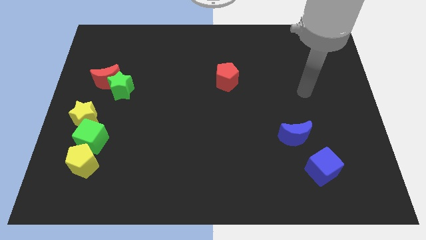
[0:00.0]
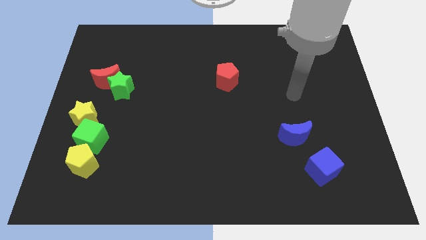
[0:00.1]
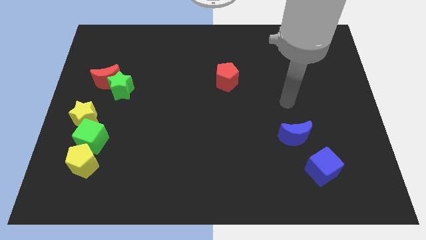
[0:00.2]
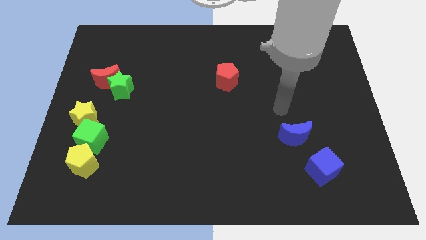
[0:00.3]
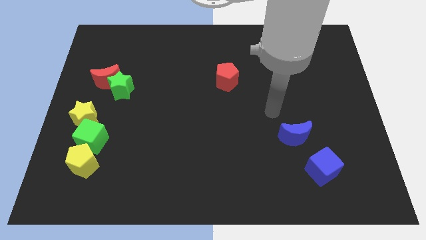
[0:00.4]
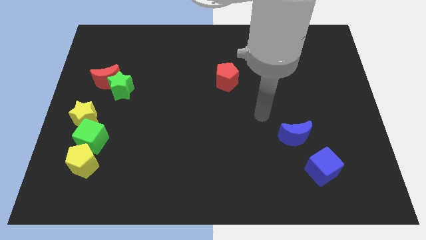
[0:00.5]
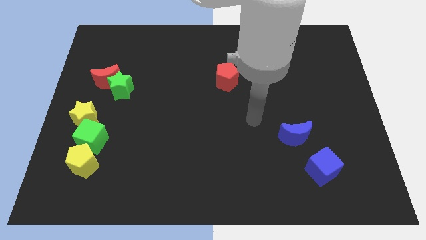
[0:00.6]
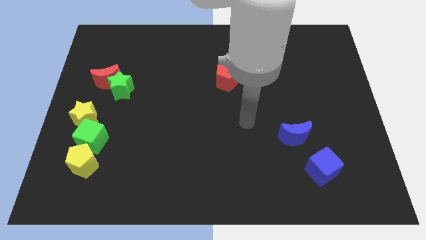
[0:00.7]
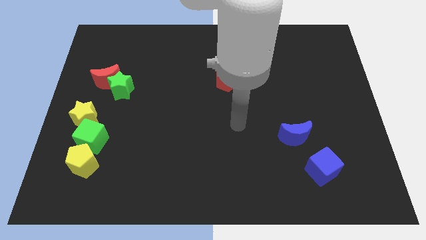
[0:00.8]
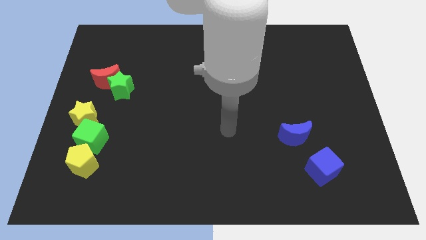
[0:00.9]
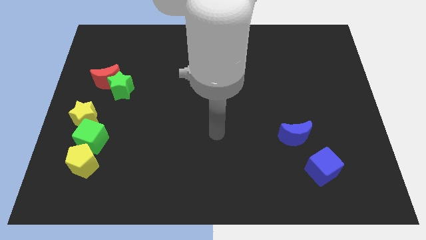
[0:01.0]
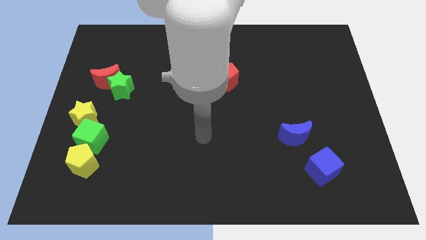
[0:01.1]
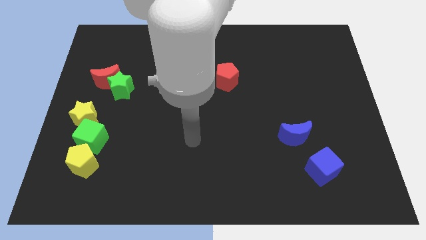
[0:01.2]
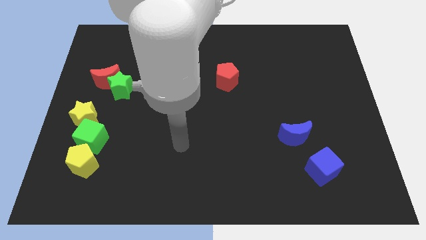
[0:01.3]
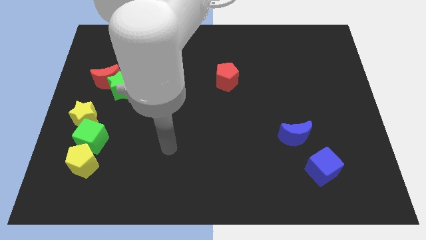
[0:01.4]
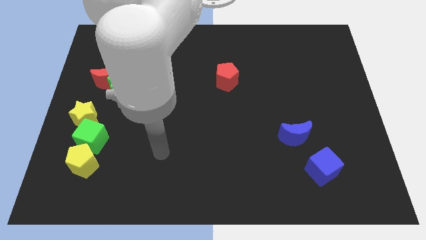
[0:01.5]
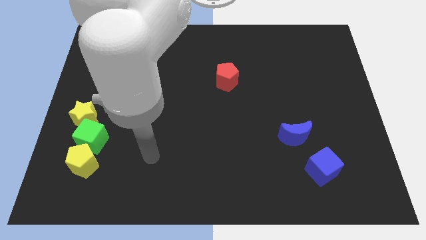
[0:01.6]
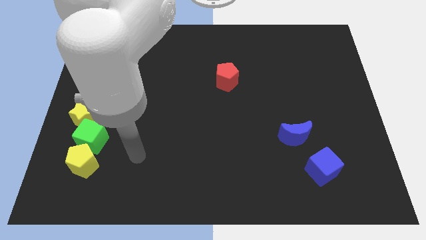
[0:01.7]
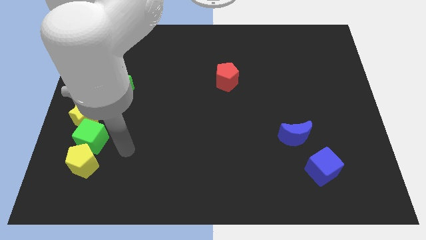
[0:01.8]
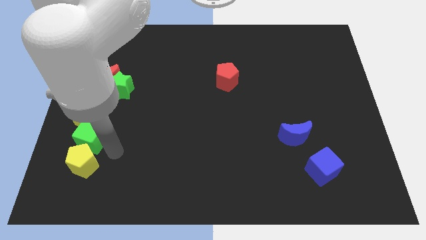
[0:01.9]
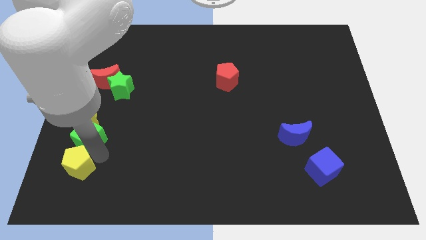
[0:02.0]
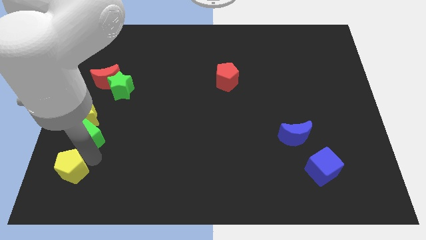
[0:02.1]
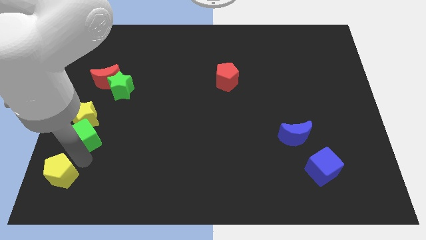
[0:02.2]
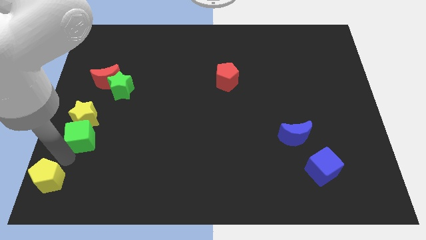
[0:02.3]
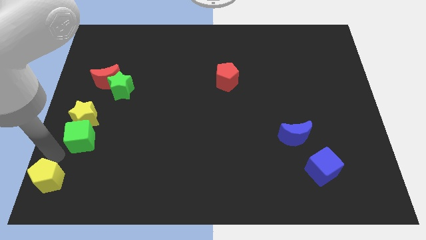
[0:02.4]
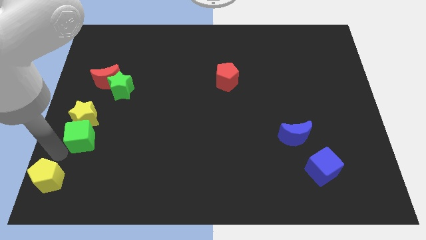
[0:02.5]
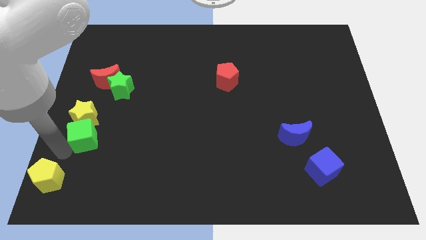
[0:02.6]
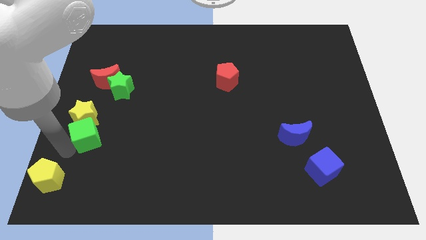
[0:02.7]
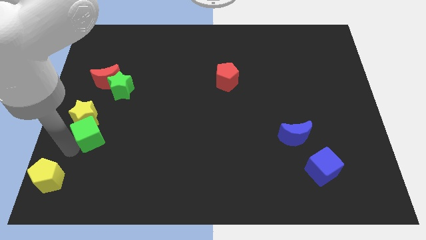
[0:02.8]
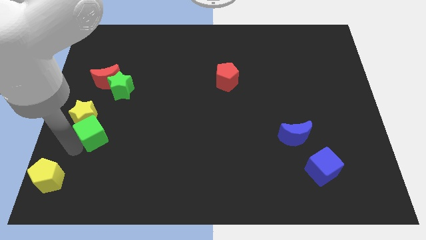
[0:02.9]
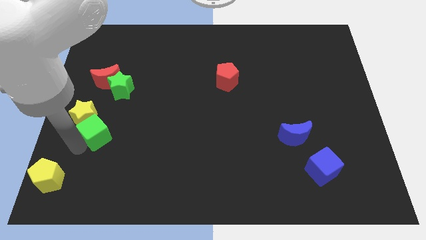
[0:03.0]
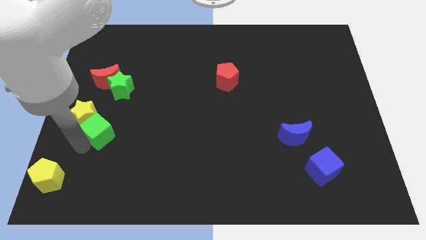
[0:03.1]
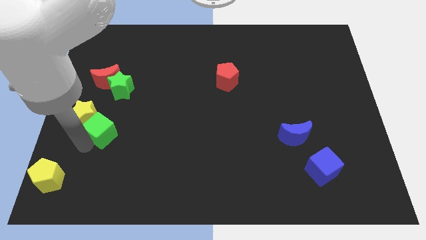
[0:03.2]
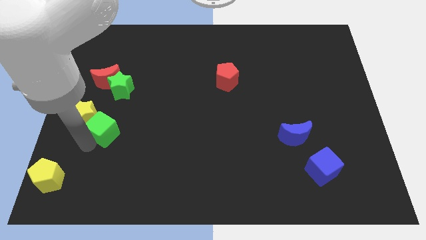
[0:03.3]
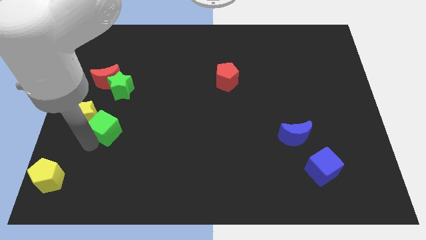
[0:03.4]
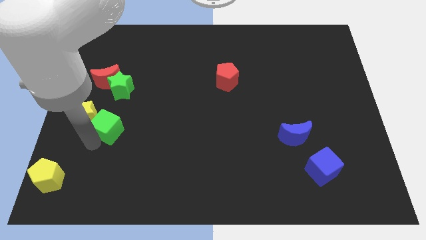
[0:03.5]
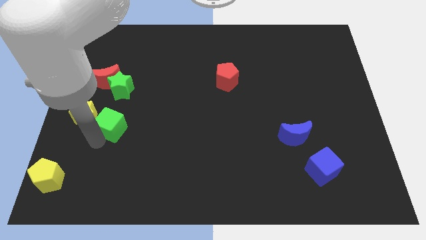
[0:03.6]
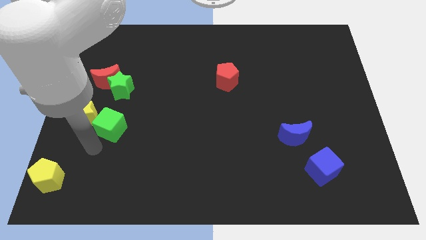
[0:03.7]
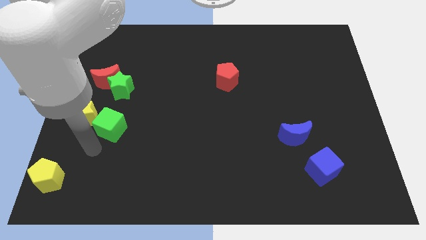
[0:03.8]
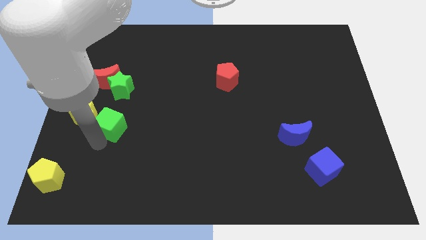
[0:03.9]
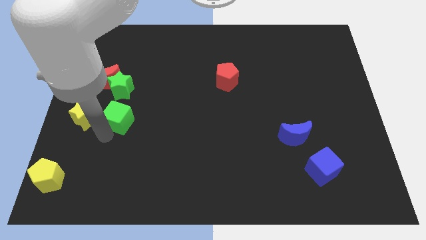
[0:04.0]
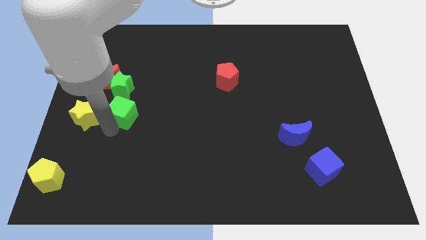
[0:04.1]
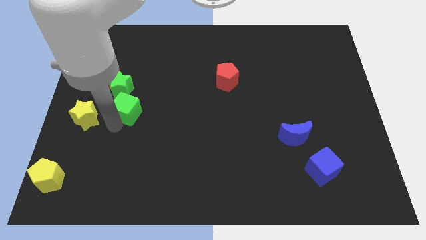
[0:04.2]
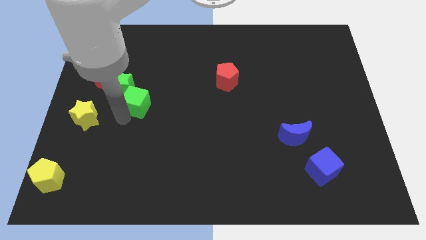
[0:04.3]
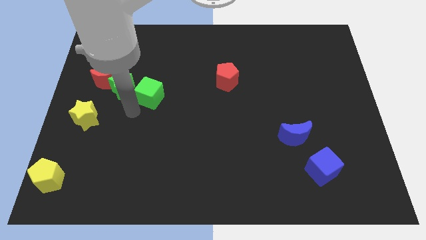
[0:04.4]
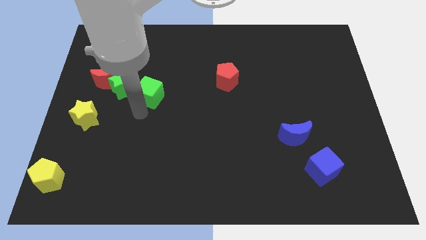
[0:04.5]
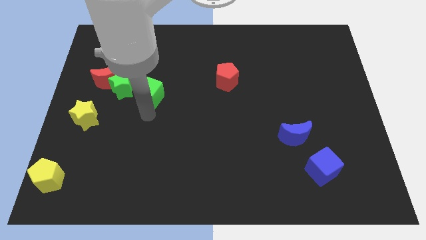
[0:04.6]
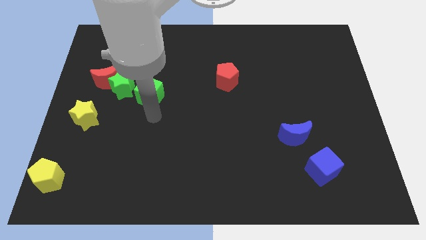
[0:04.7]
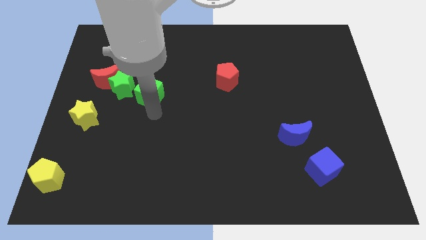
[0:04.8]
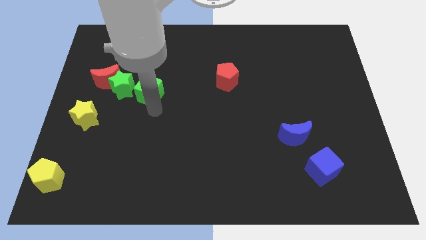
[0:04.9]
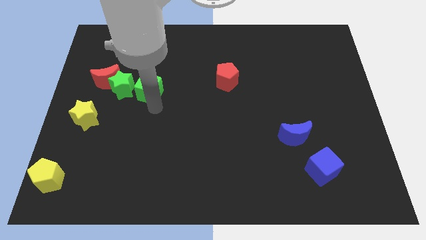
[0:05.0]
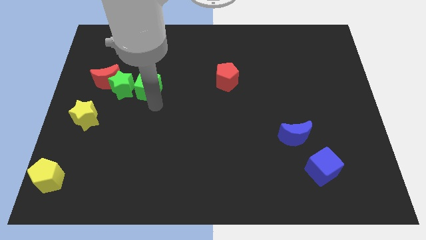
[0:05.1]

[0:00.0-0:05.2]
slide the green cube to the top right side of the green star

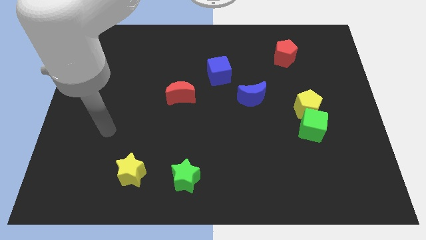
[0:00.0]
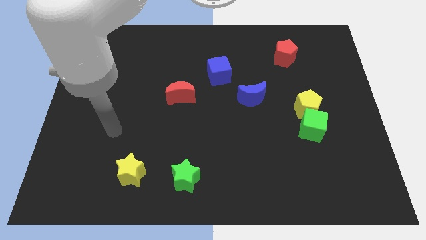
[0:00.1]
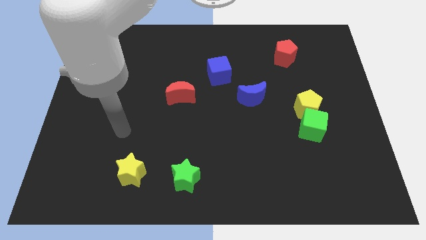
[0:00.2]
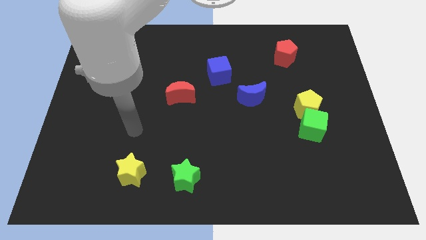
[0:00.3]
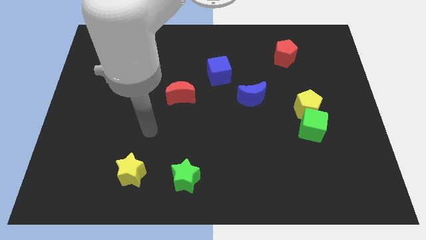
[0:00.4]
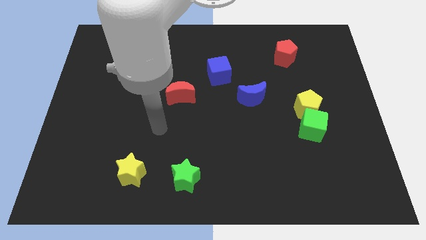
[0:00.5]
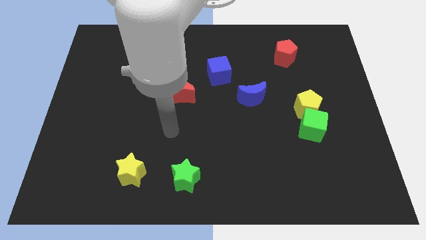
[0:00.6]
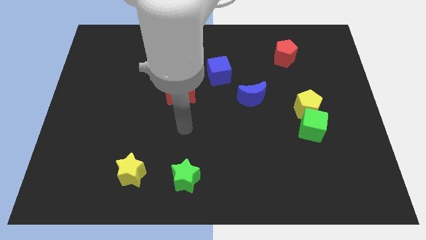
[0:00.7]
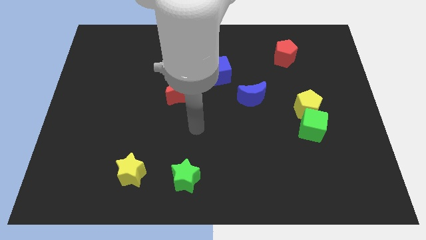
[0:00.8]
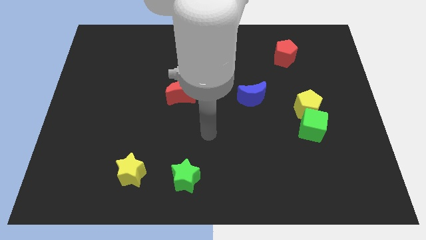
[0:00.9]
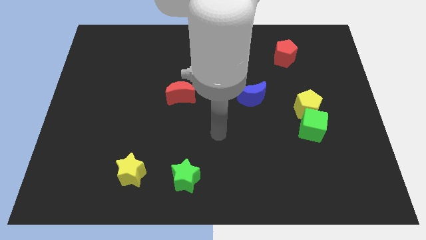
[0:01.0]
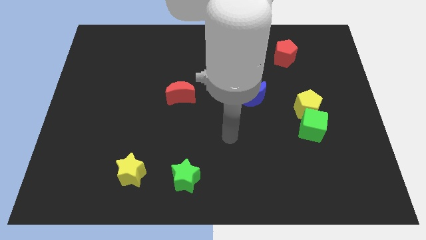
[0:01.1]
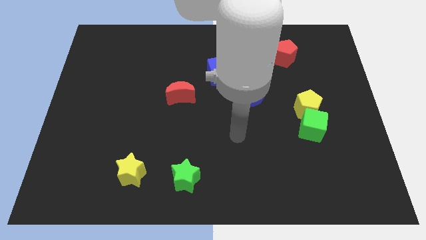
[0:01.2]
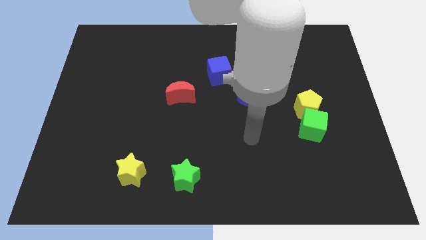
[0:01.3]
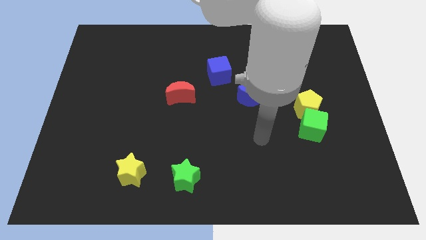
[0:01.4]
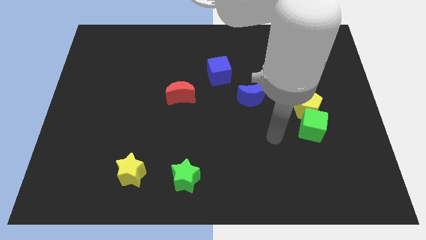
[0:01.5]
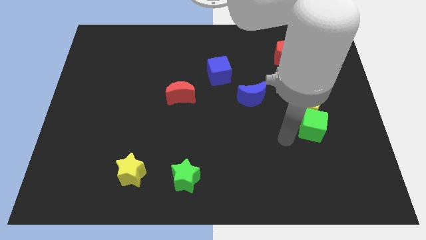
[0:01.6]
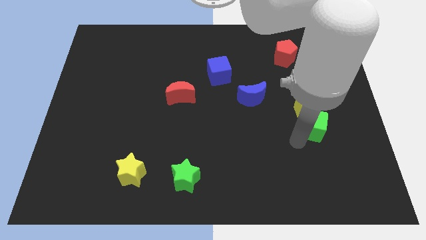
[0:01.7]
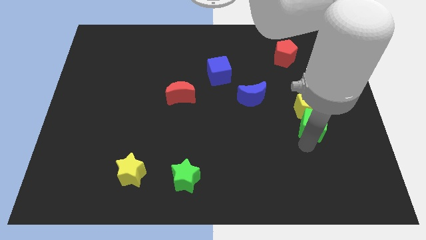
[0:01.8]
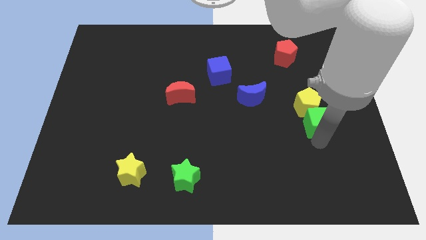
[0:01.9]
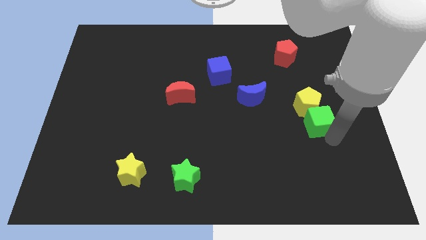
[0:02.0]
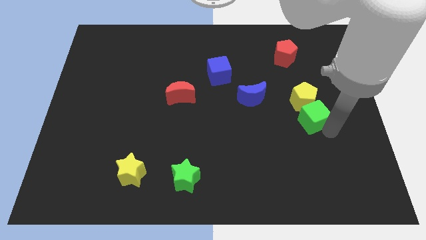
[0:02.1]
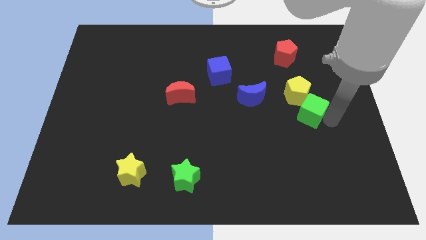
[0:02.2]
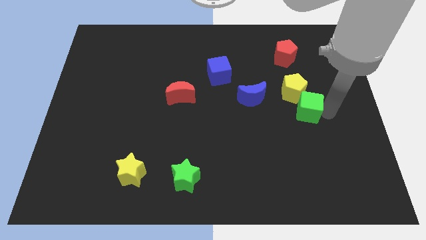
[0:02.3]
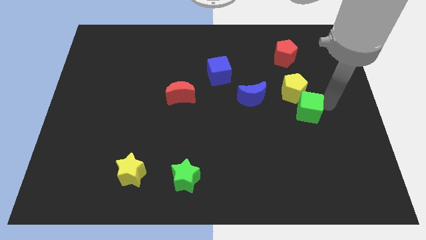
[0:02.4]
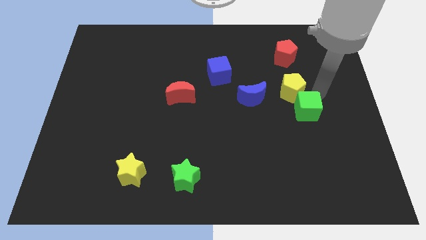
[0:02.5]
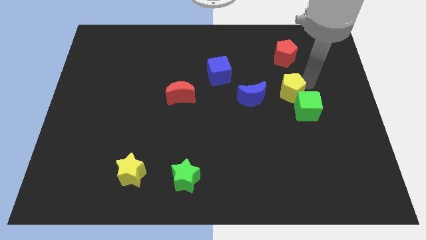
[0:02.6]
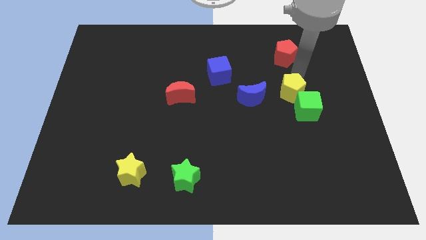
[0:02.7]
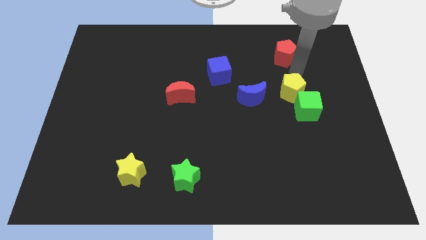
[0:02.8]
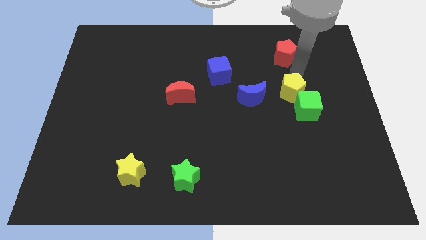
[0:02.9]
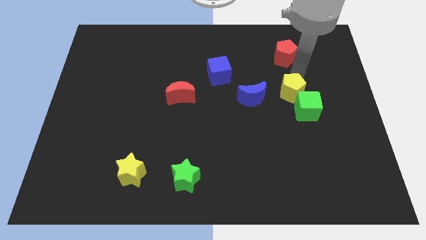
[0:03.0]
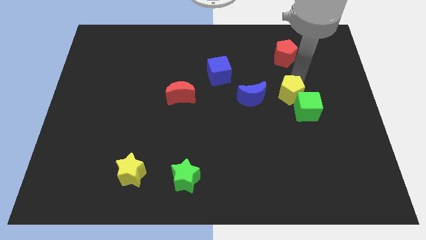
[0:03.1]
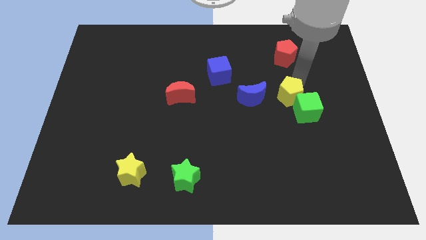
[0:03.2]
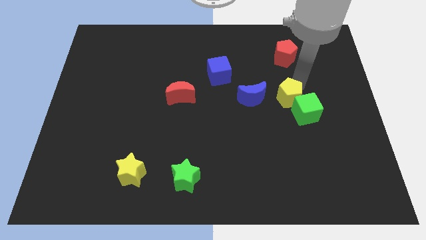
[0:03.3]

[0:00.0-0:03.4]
move the yellow pentagon just left of the green cube
